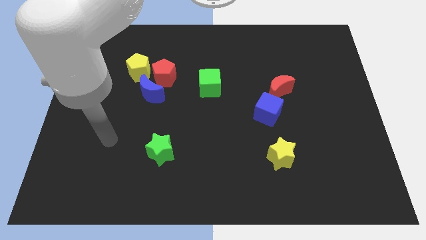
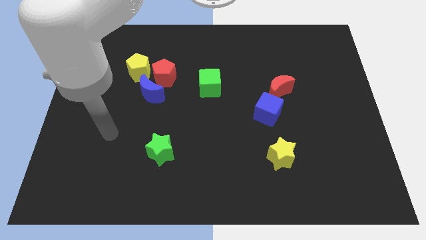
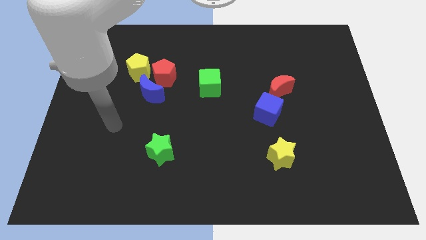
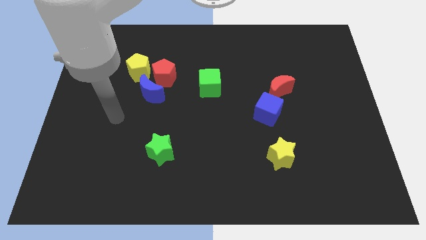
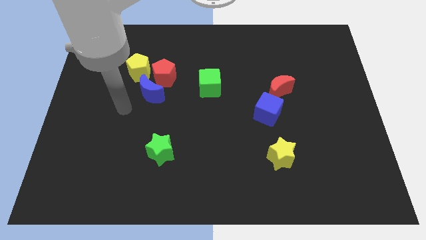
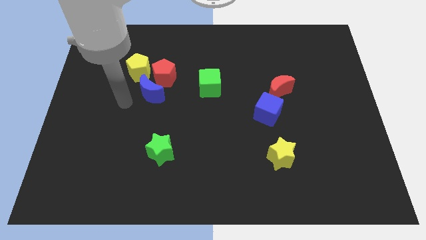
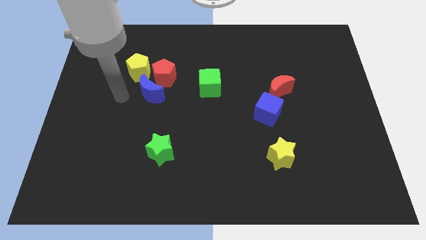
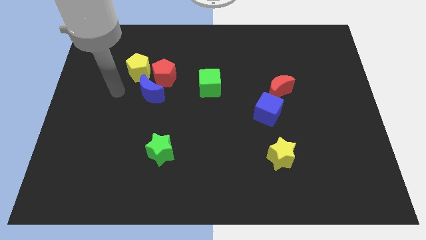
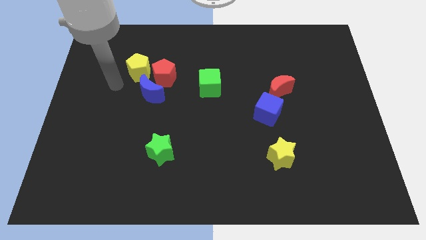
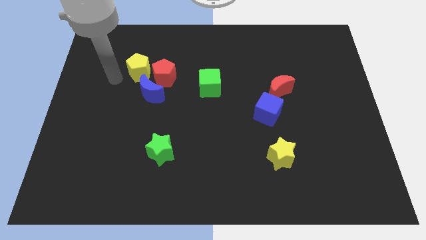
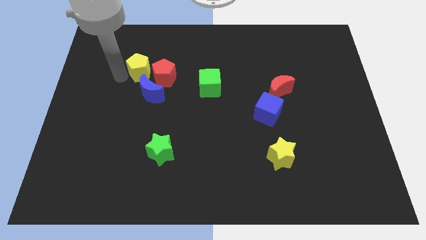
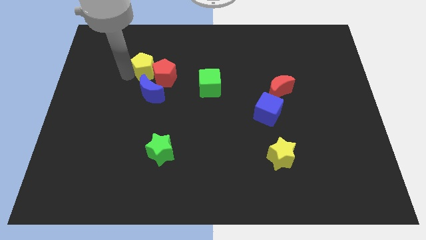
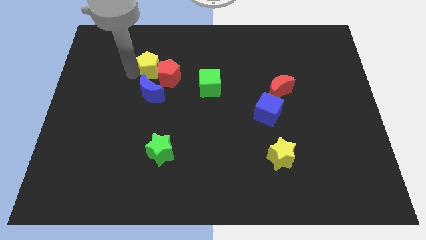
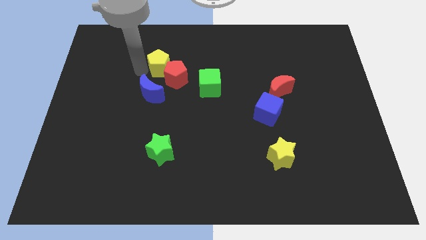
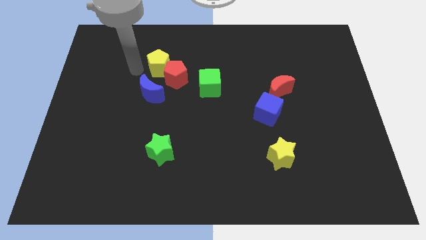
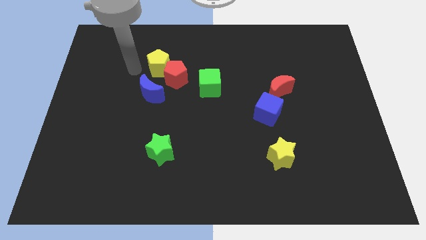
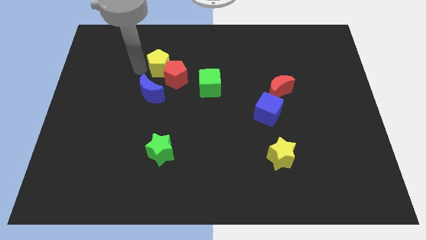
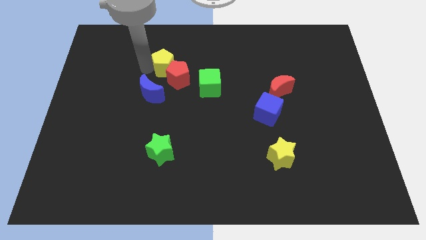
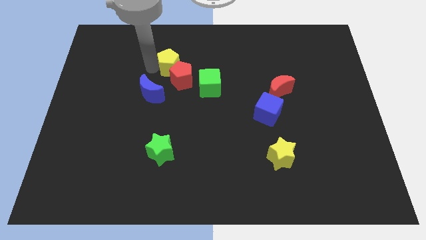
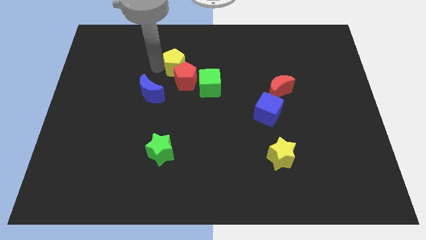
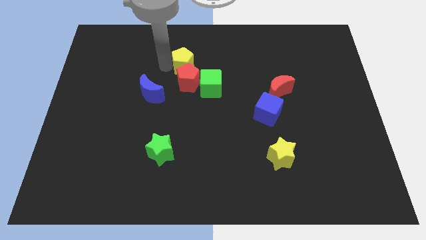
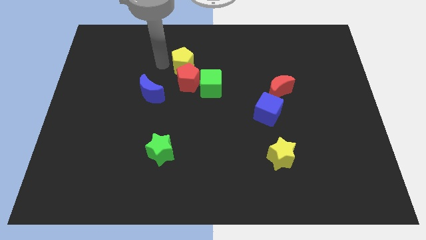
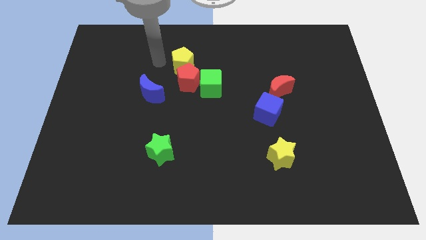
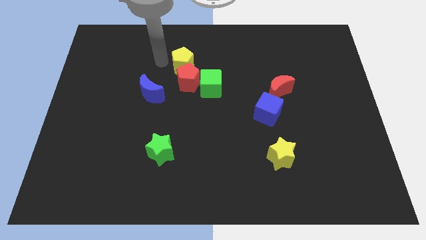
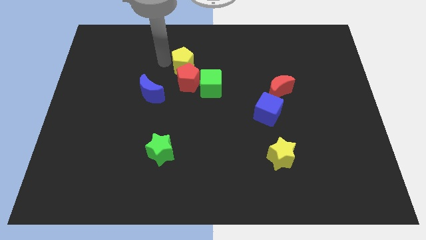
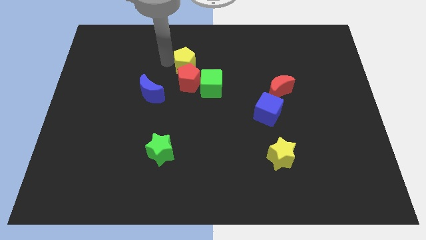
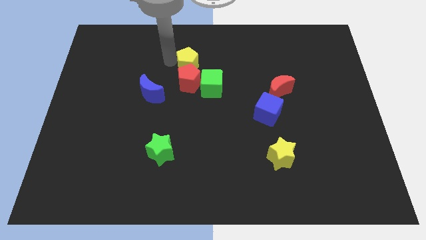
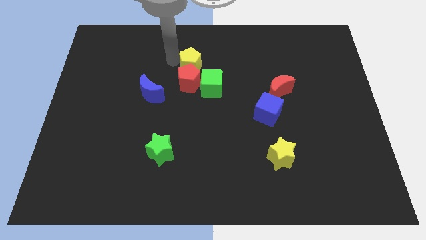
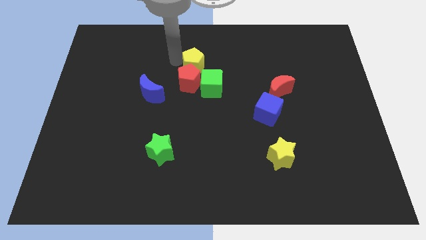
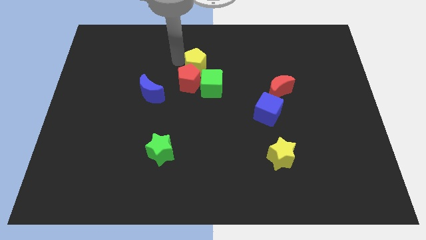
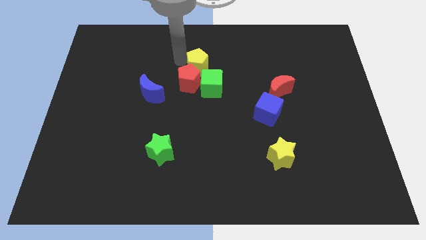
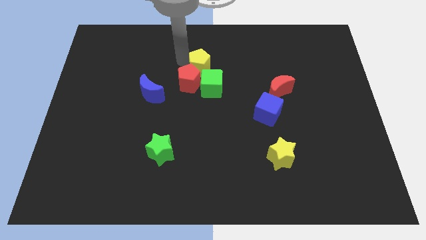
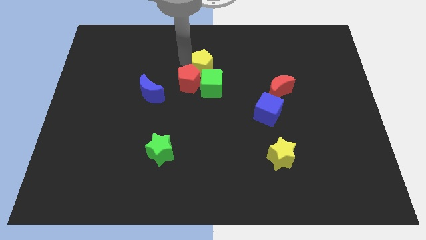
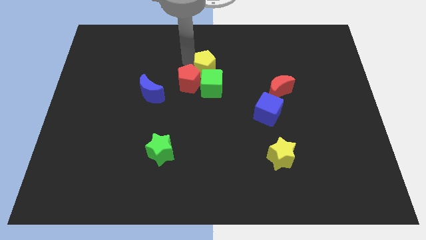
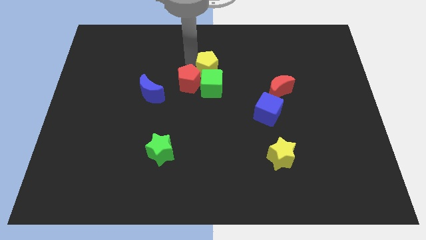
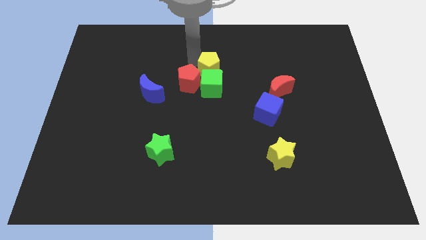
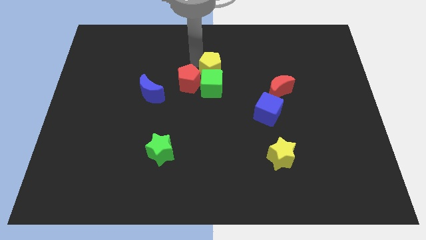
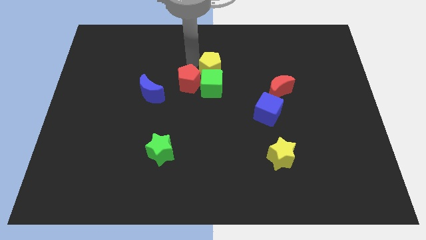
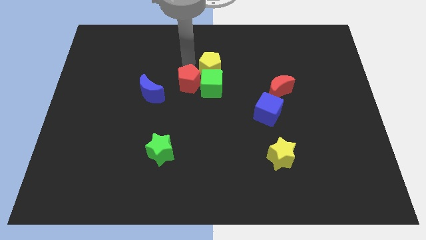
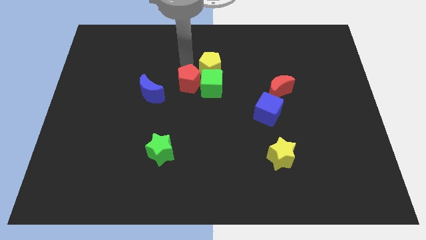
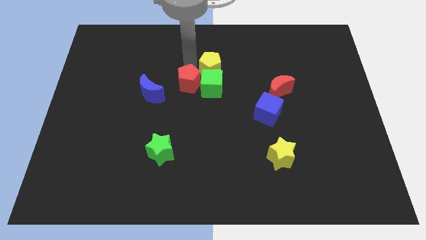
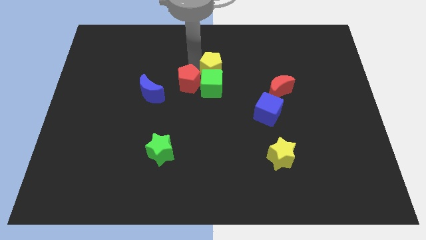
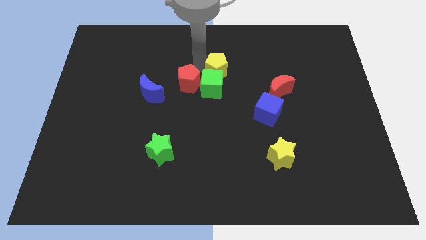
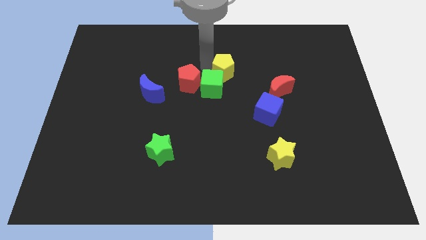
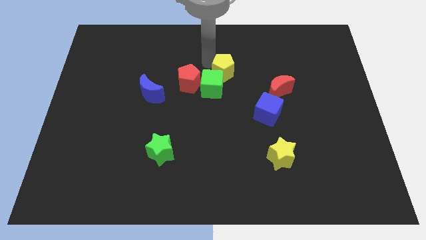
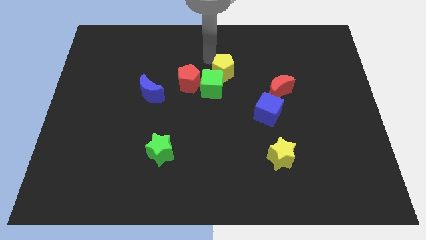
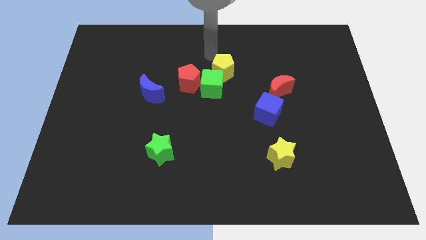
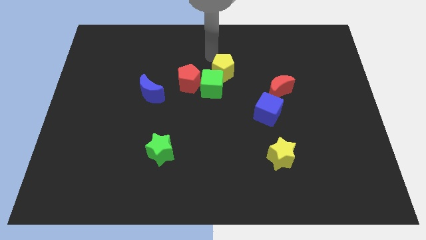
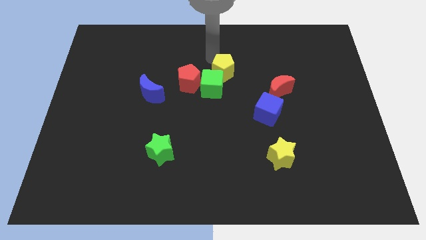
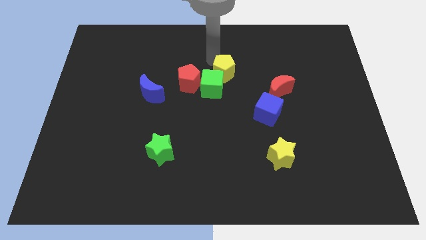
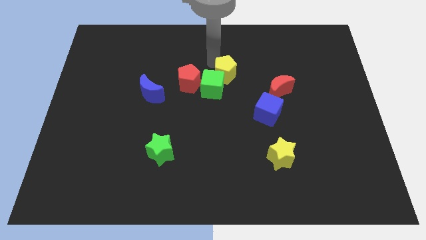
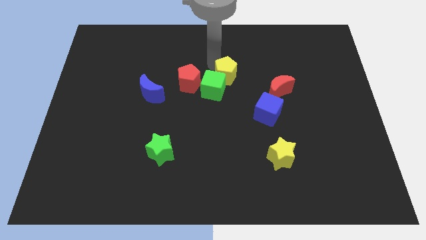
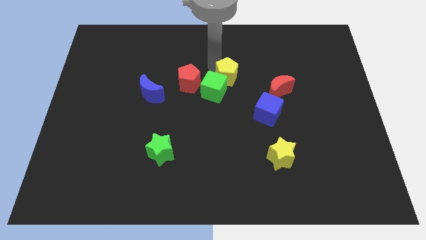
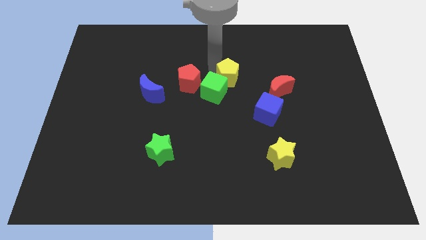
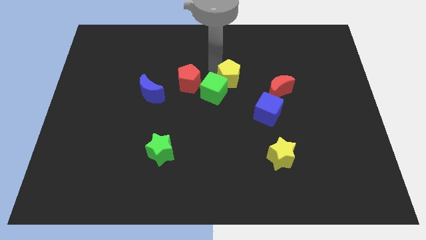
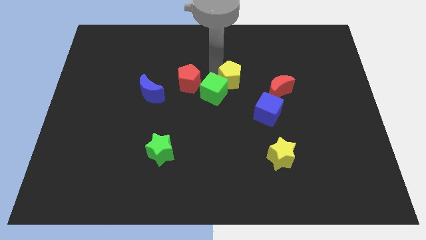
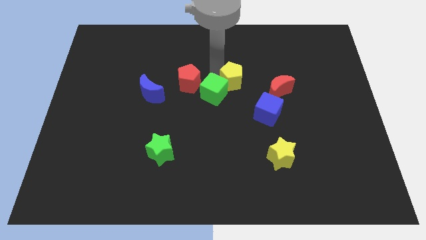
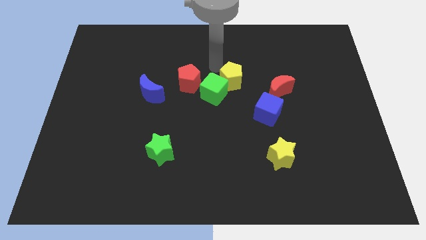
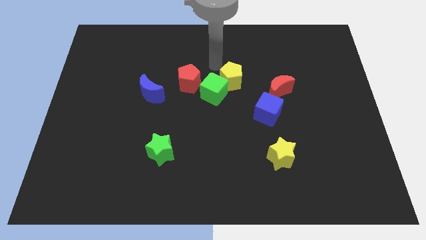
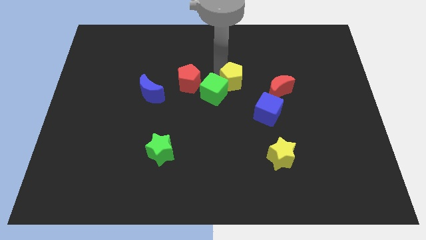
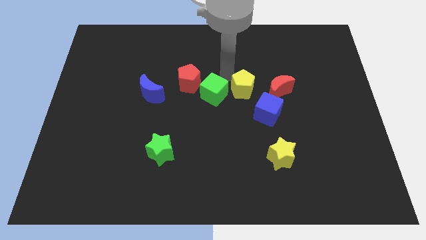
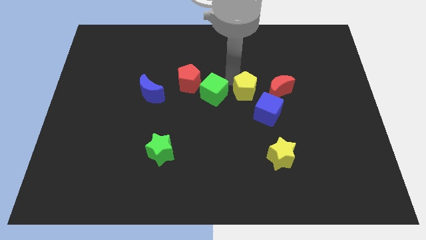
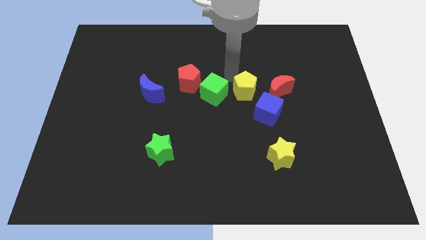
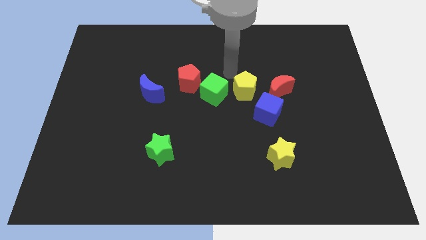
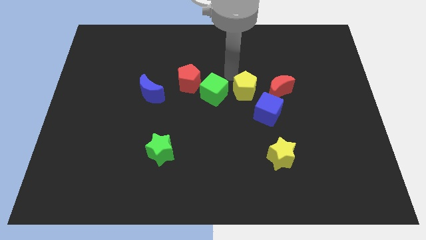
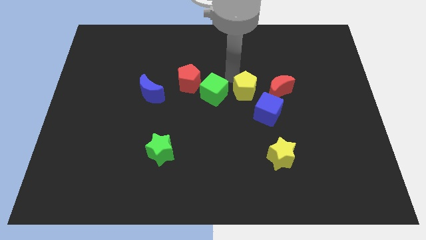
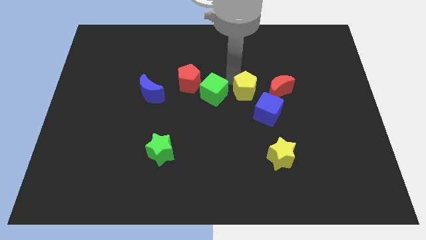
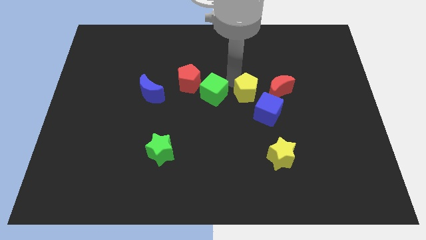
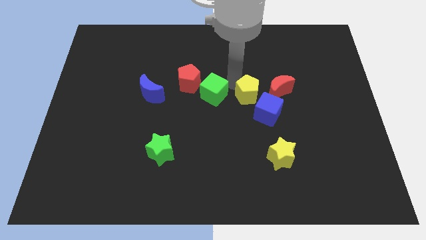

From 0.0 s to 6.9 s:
push the yellow pentagon to the bottom left side of the red moon
